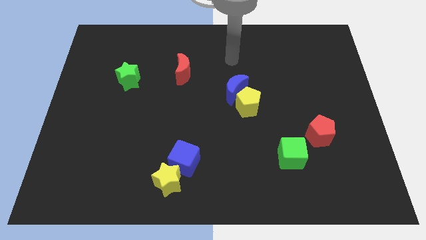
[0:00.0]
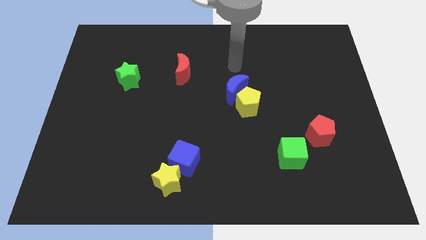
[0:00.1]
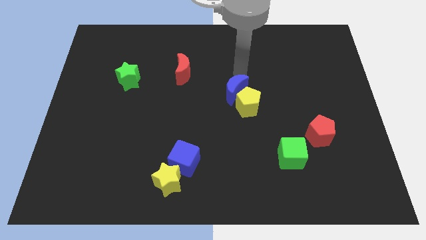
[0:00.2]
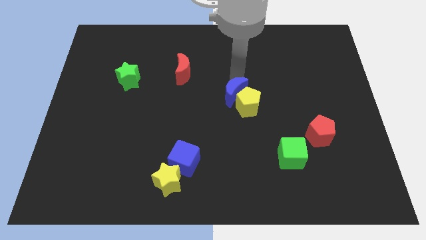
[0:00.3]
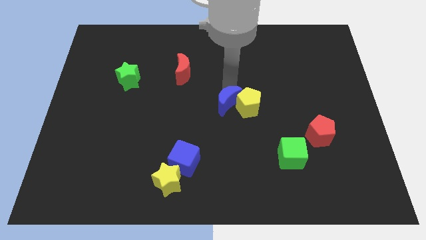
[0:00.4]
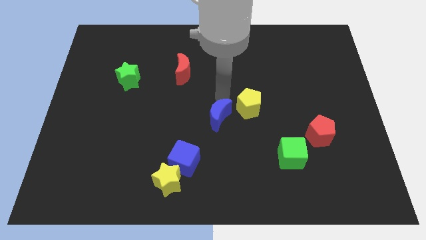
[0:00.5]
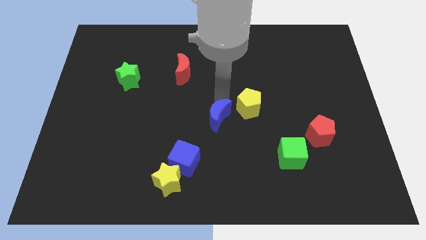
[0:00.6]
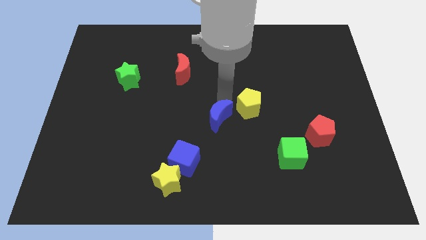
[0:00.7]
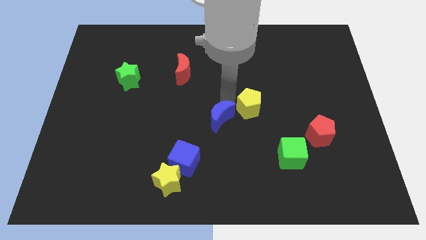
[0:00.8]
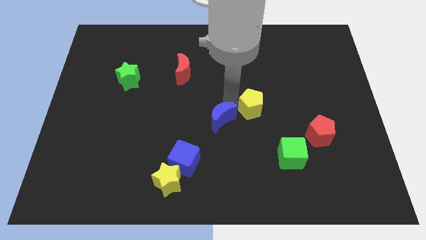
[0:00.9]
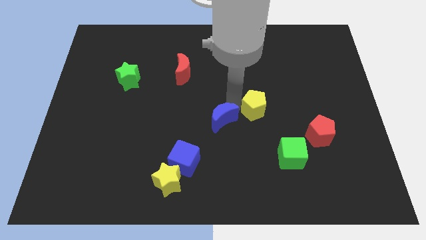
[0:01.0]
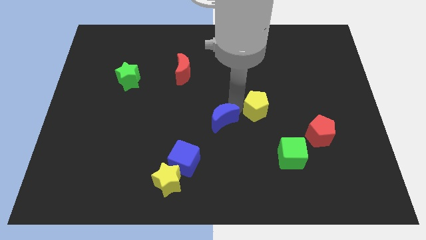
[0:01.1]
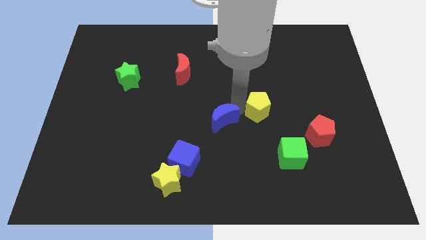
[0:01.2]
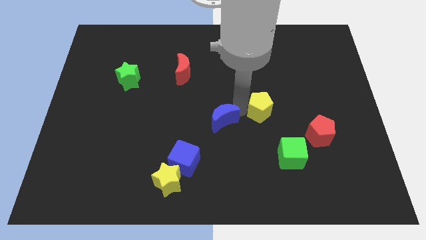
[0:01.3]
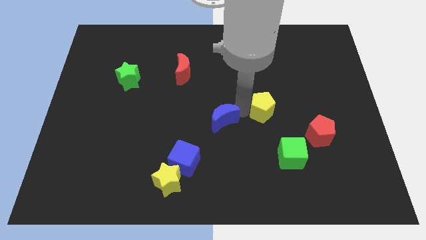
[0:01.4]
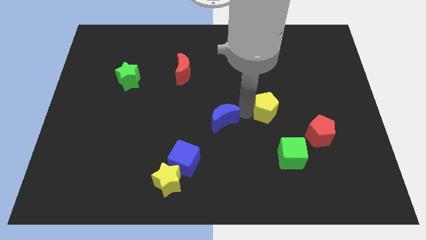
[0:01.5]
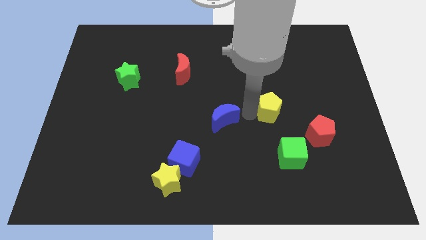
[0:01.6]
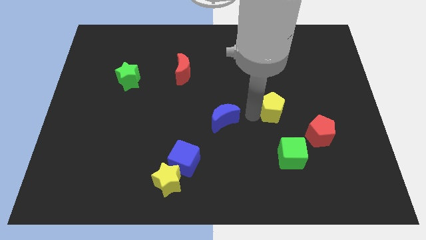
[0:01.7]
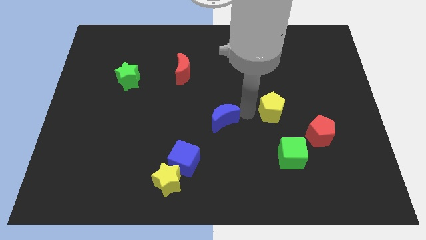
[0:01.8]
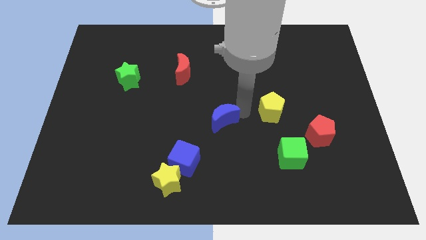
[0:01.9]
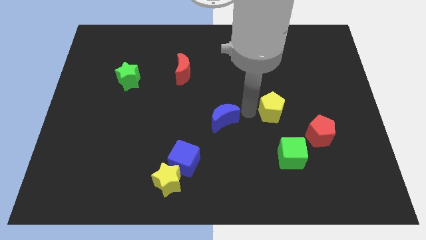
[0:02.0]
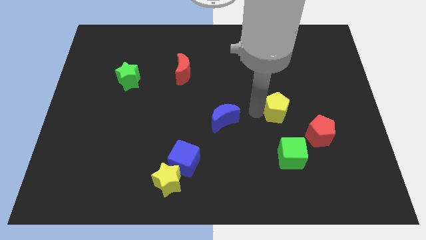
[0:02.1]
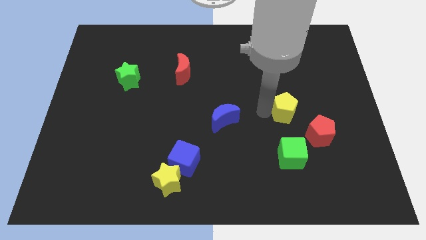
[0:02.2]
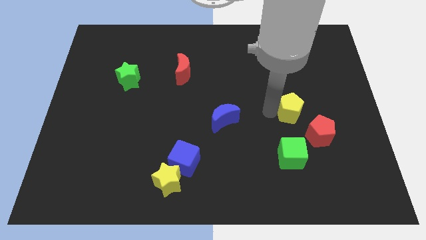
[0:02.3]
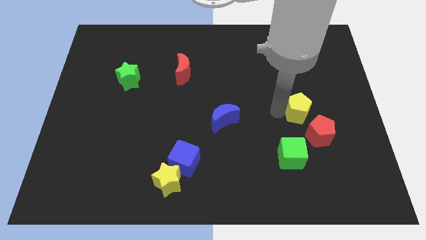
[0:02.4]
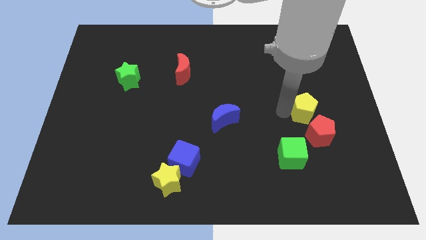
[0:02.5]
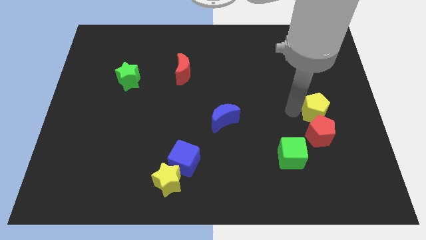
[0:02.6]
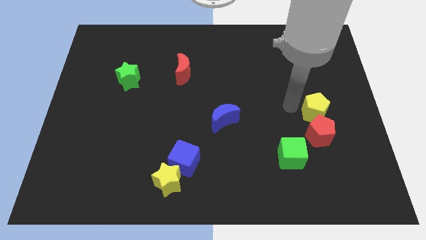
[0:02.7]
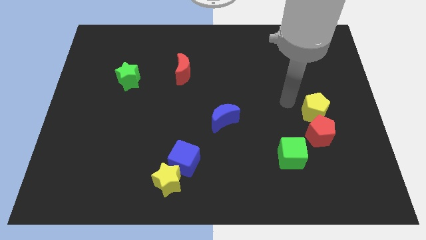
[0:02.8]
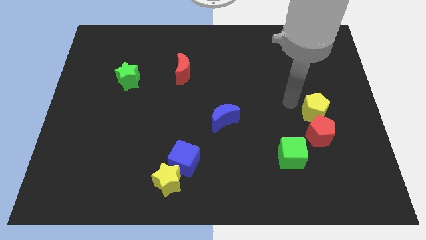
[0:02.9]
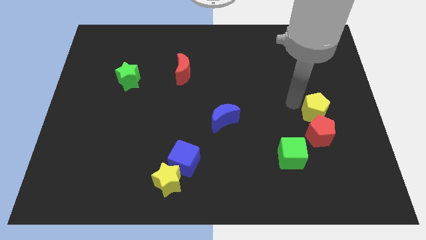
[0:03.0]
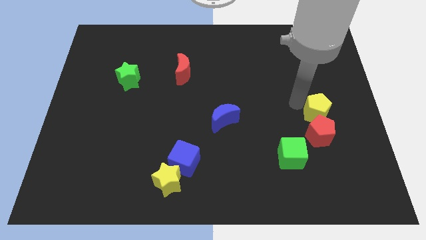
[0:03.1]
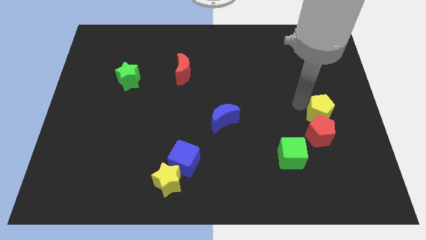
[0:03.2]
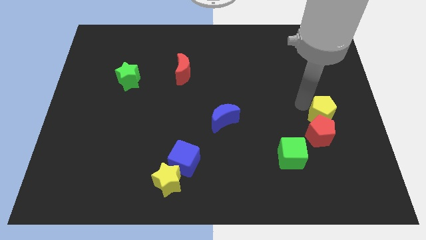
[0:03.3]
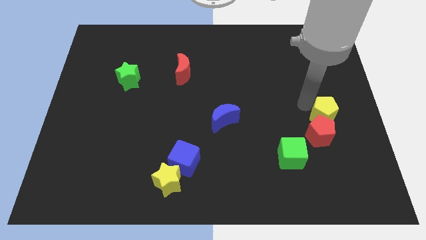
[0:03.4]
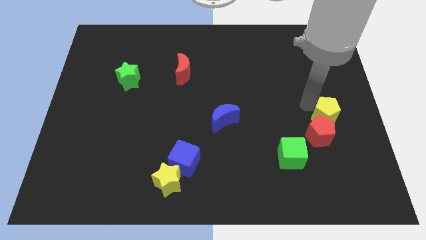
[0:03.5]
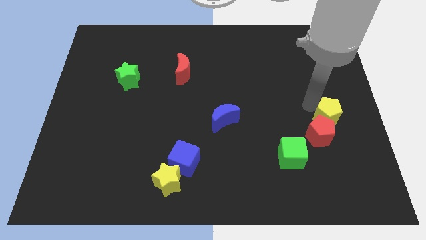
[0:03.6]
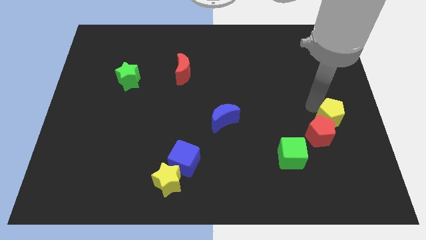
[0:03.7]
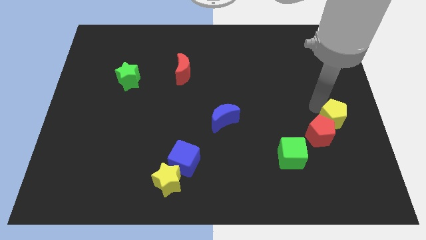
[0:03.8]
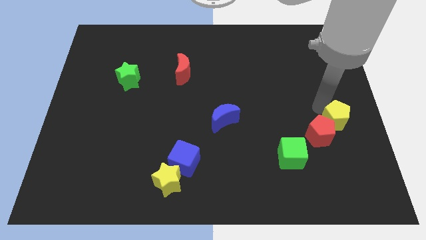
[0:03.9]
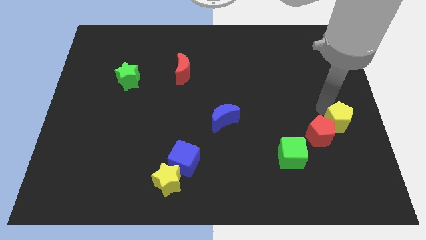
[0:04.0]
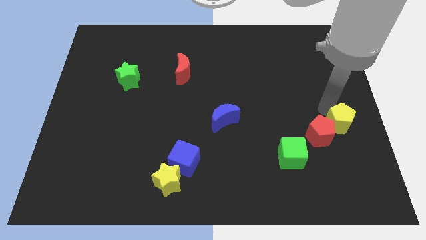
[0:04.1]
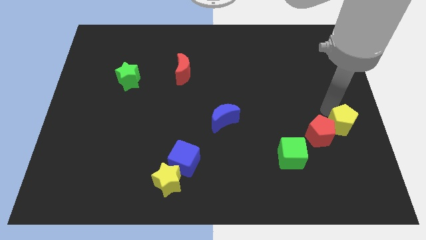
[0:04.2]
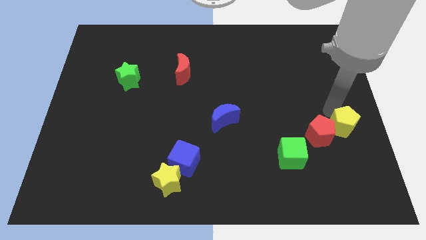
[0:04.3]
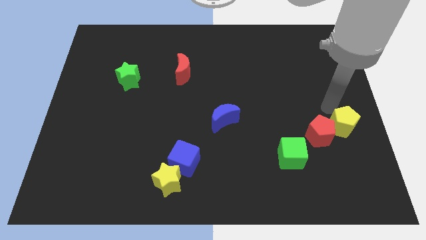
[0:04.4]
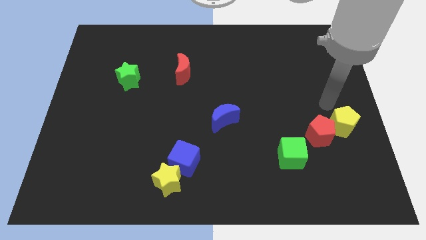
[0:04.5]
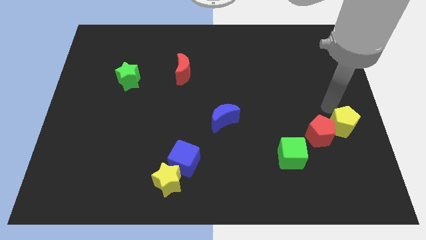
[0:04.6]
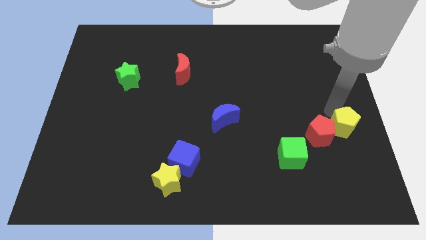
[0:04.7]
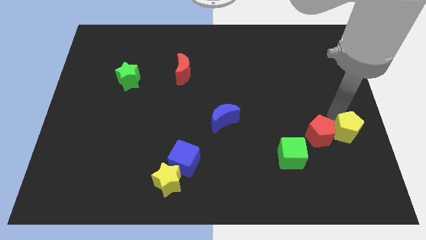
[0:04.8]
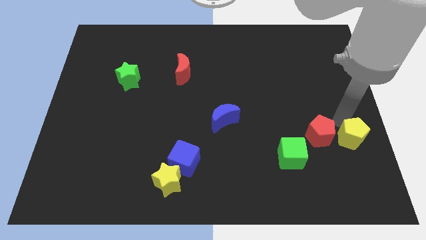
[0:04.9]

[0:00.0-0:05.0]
move the yellow pentagon to the bottom right side of the red pentagon

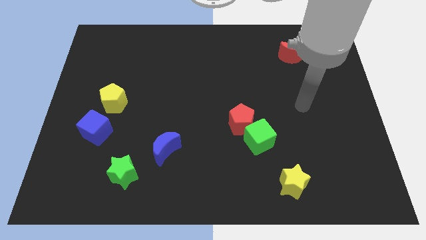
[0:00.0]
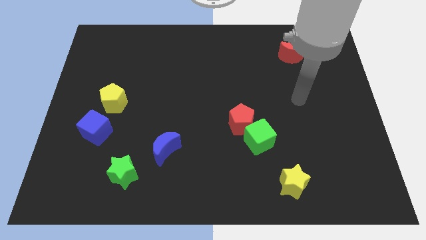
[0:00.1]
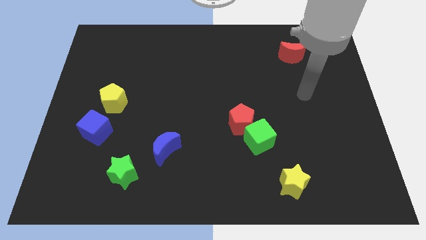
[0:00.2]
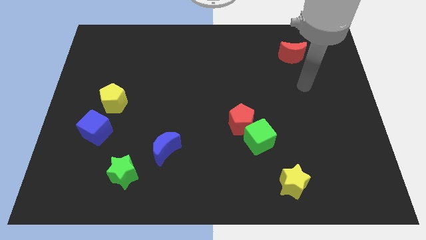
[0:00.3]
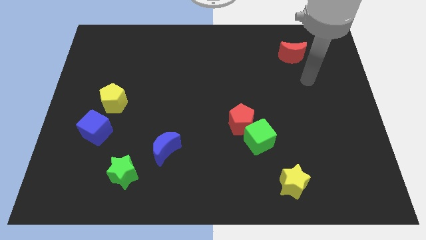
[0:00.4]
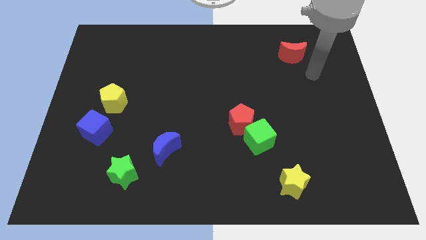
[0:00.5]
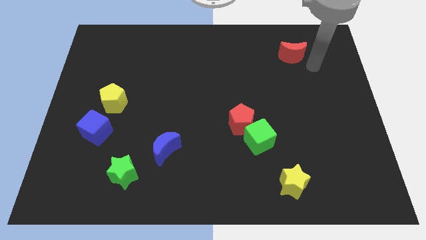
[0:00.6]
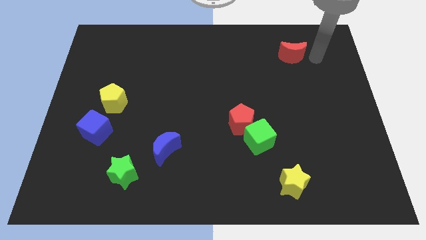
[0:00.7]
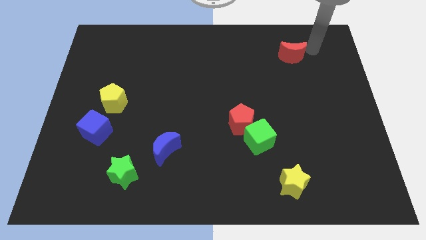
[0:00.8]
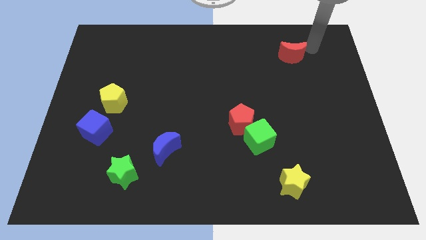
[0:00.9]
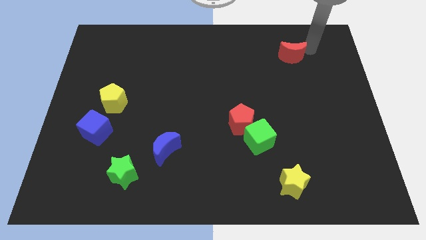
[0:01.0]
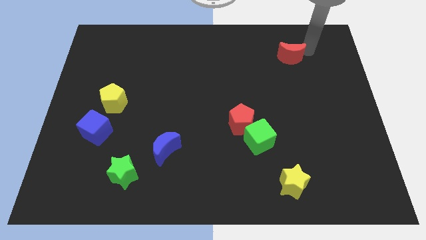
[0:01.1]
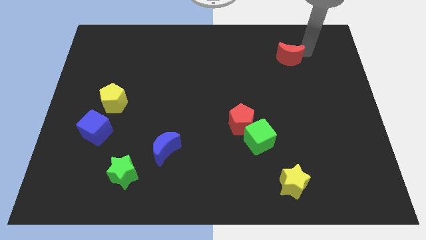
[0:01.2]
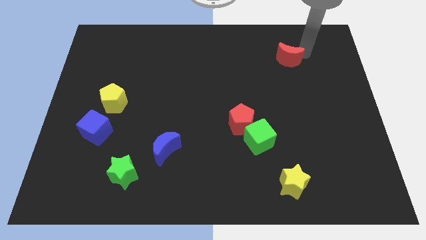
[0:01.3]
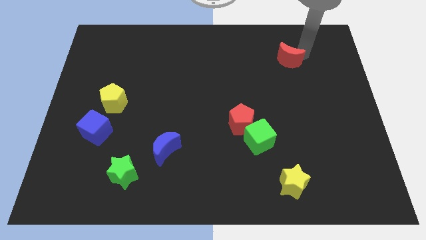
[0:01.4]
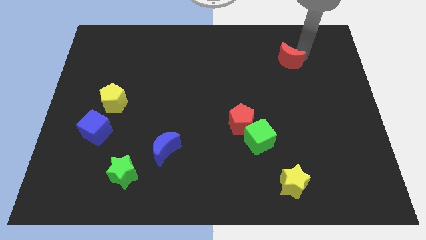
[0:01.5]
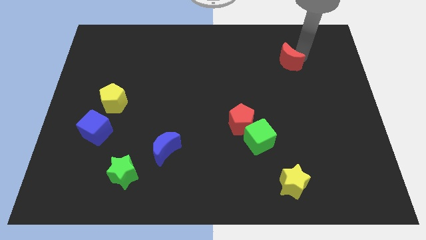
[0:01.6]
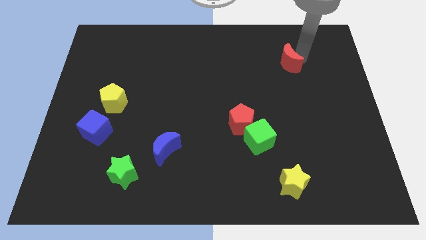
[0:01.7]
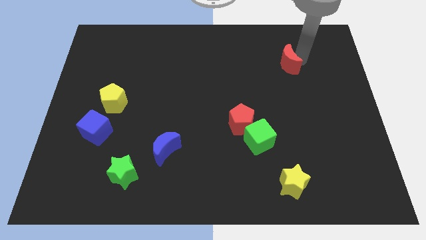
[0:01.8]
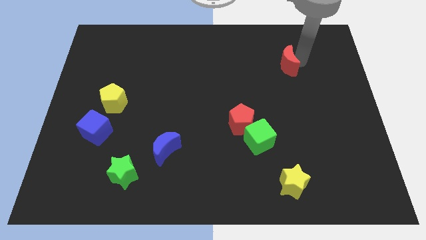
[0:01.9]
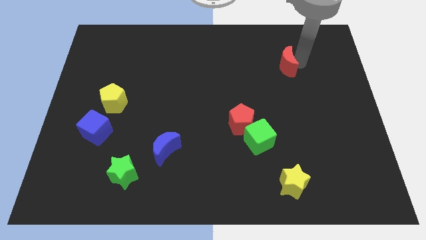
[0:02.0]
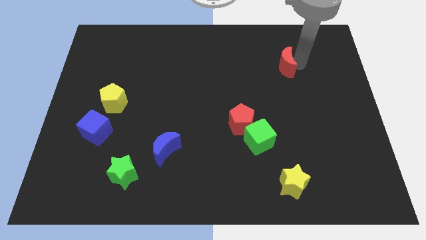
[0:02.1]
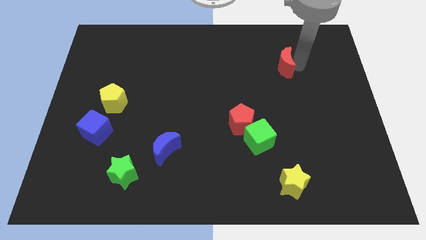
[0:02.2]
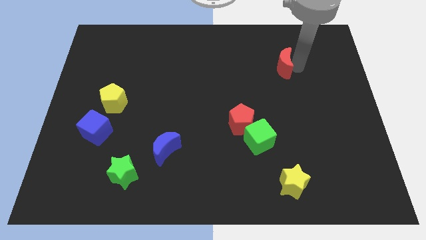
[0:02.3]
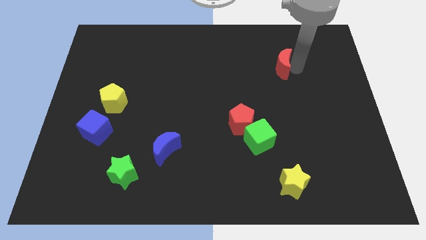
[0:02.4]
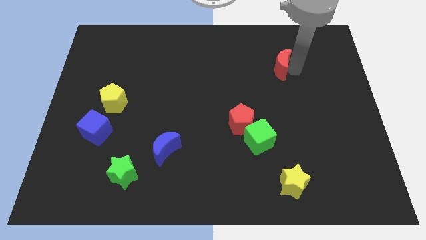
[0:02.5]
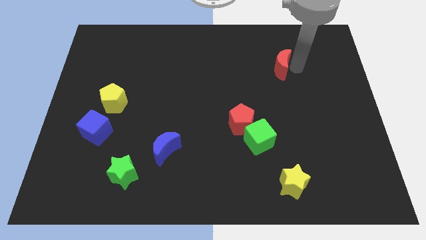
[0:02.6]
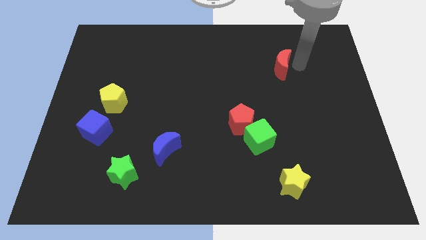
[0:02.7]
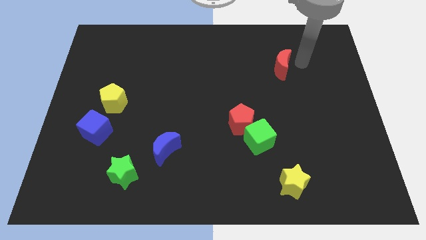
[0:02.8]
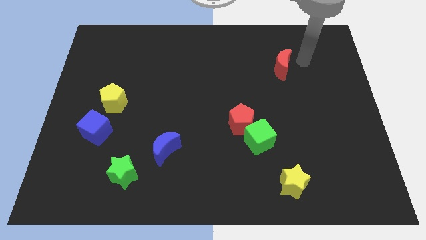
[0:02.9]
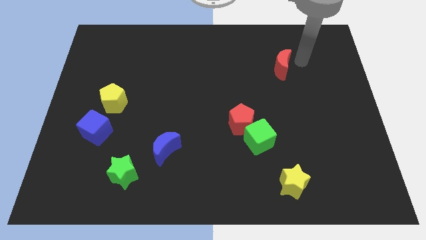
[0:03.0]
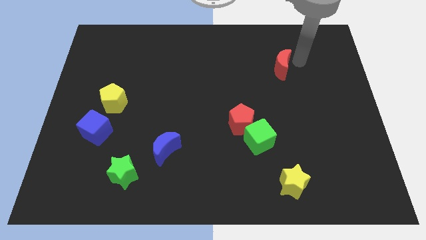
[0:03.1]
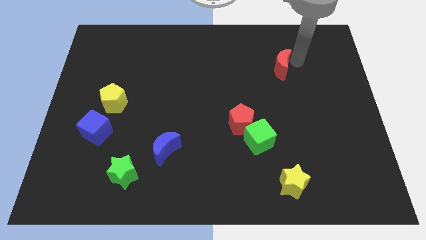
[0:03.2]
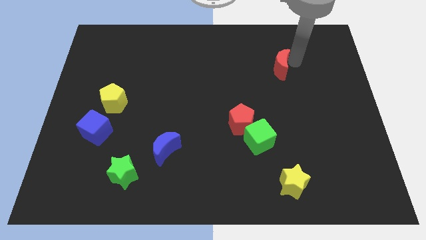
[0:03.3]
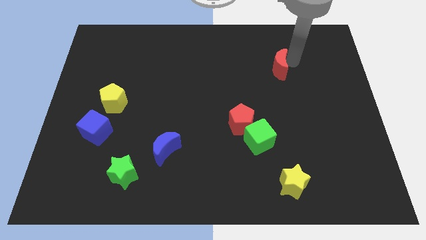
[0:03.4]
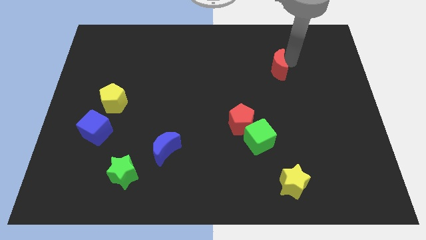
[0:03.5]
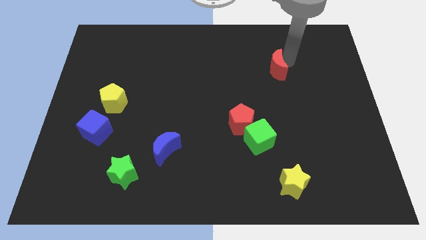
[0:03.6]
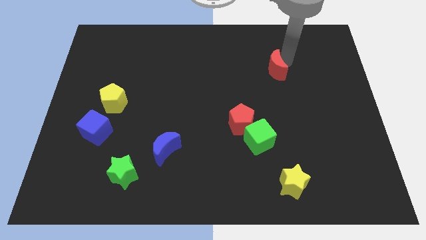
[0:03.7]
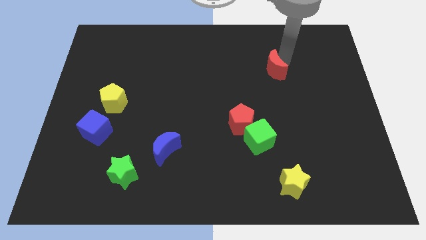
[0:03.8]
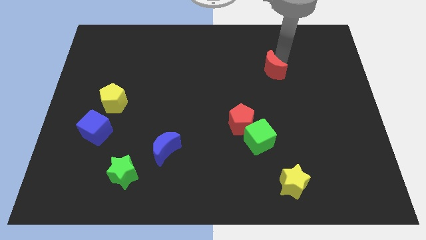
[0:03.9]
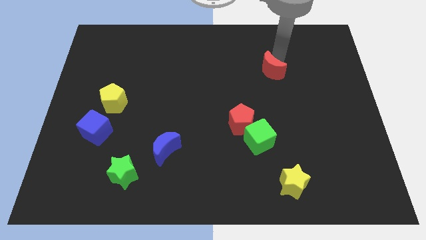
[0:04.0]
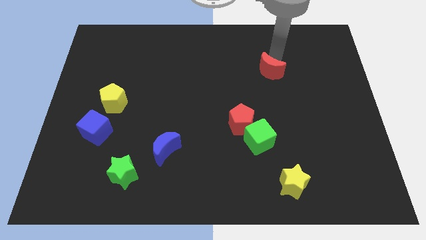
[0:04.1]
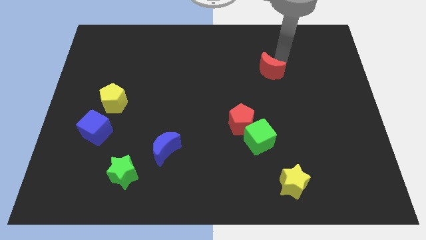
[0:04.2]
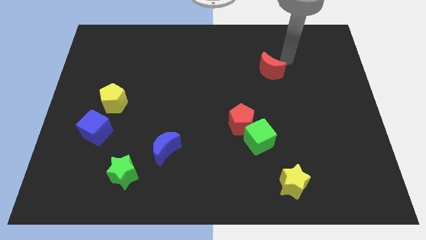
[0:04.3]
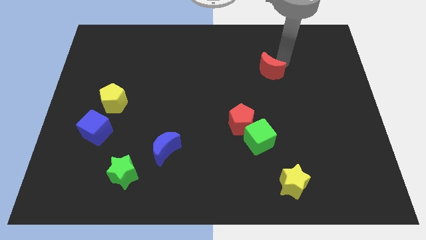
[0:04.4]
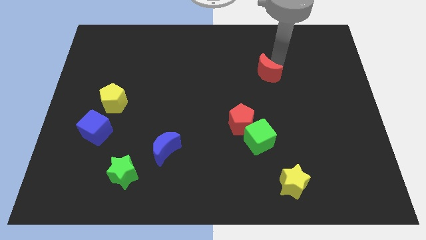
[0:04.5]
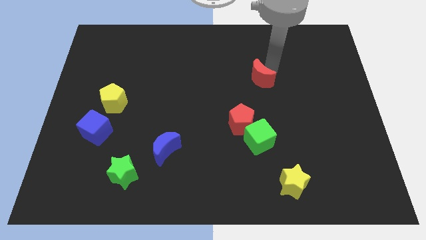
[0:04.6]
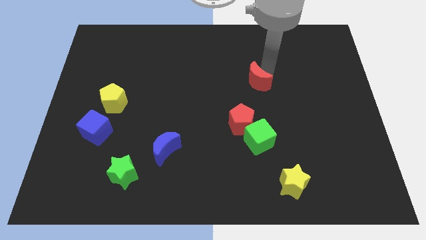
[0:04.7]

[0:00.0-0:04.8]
slide the red moon above the red pentagon
